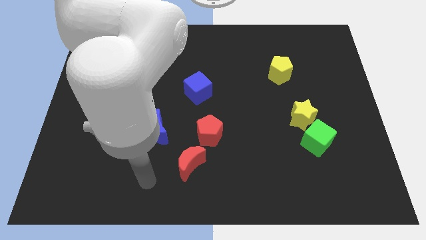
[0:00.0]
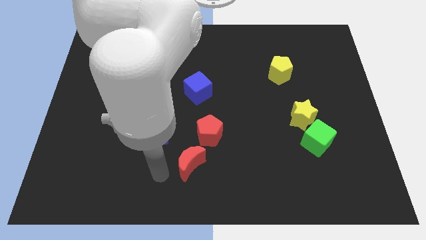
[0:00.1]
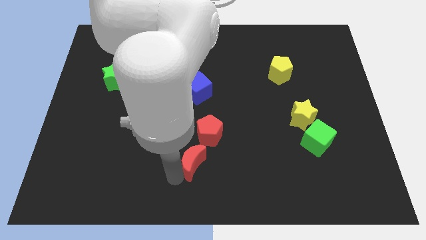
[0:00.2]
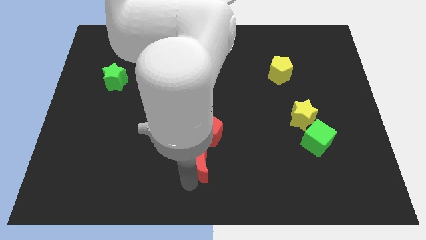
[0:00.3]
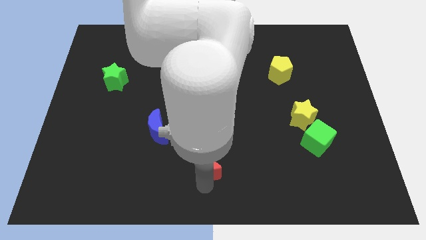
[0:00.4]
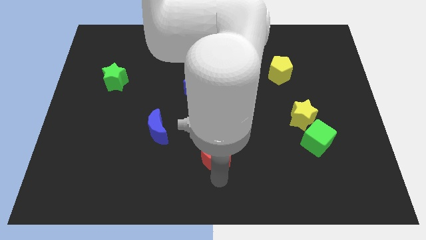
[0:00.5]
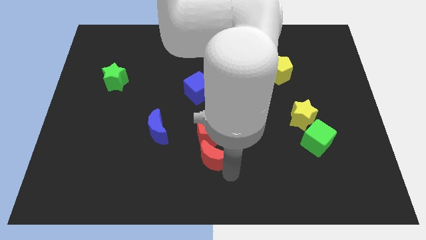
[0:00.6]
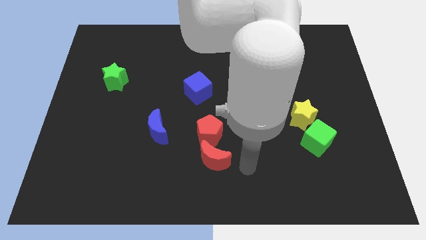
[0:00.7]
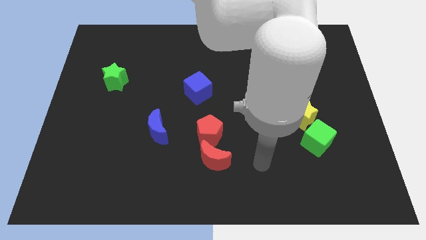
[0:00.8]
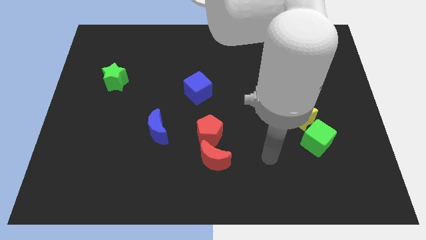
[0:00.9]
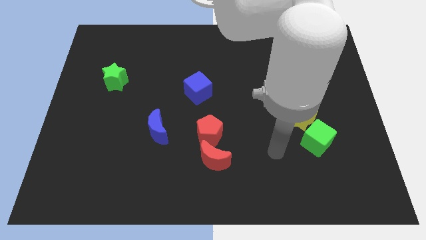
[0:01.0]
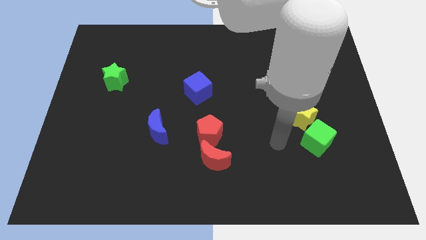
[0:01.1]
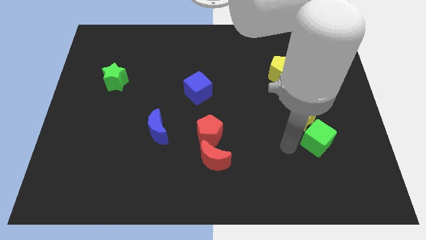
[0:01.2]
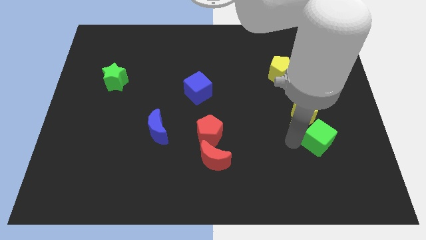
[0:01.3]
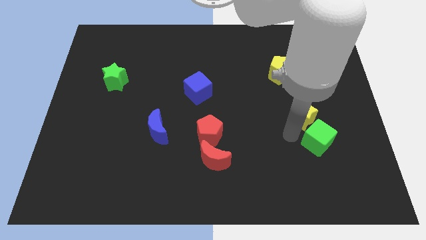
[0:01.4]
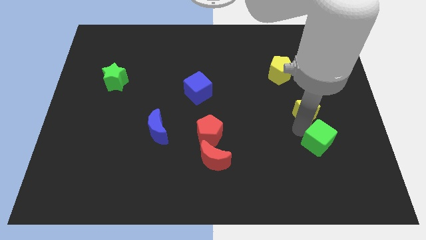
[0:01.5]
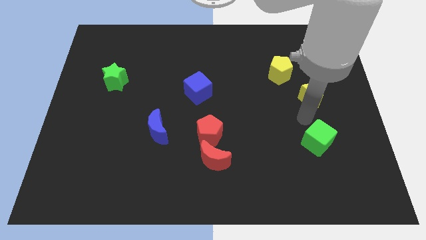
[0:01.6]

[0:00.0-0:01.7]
separate the green cube from the yellow star

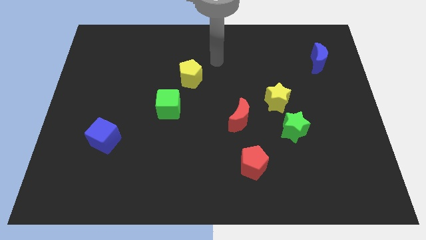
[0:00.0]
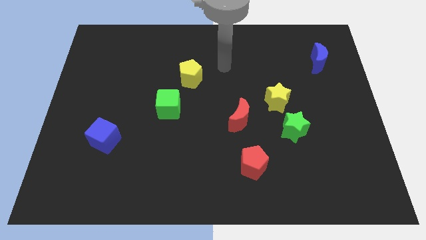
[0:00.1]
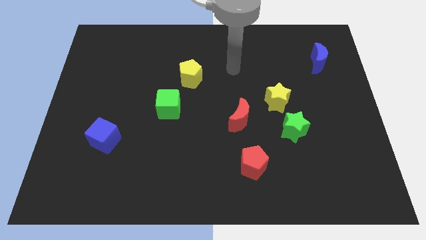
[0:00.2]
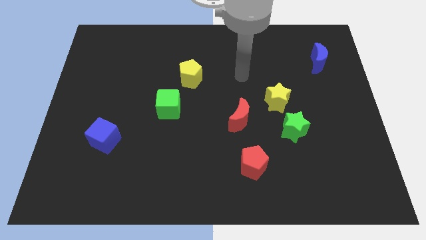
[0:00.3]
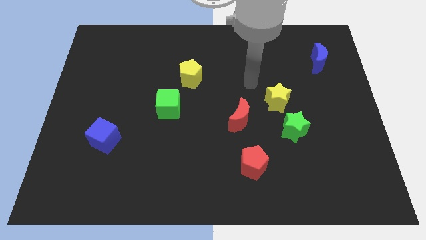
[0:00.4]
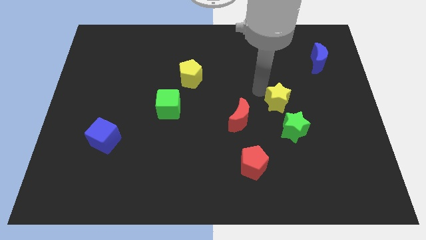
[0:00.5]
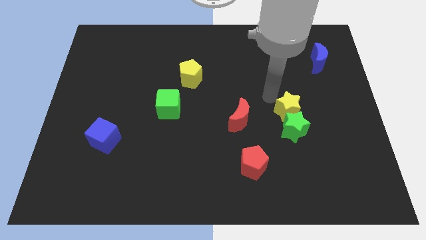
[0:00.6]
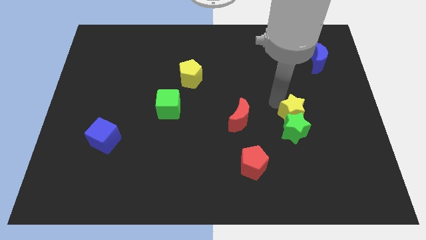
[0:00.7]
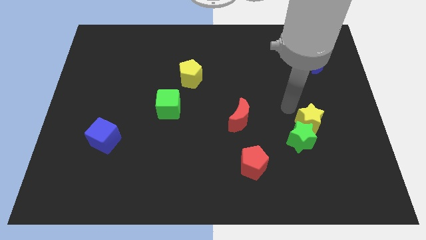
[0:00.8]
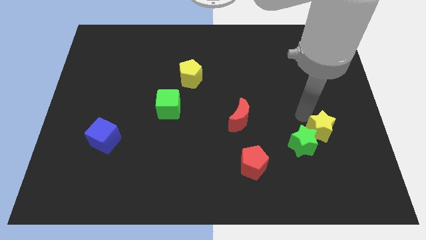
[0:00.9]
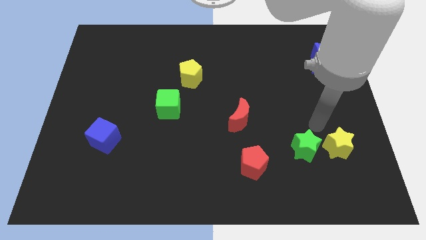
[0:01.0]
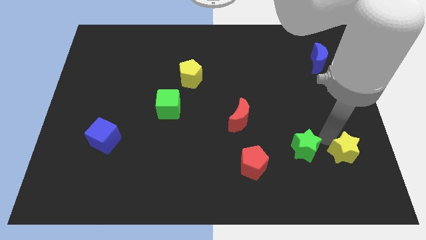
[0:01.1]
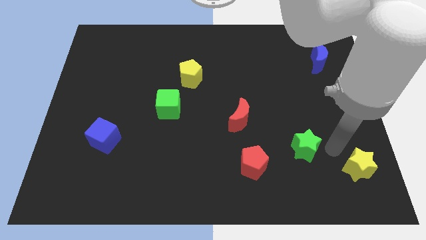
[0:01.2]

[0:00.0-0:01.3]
move the green star away from the yellow star

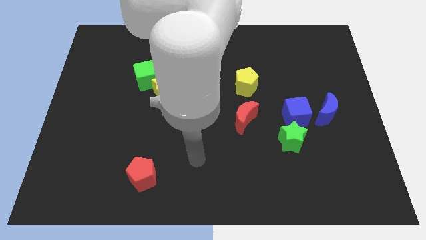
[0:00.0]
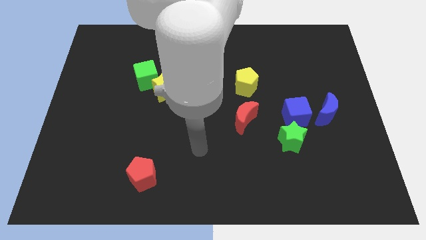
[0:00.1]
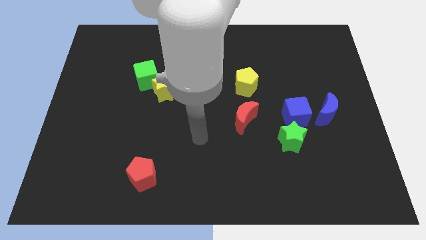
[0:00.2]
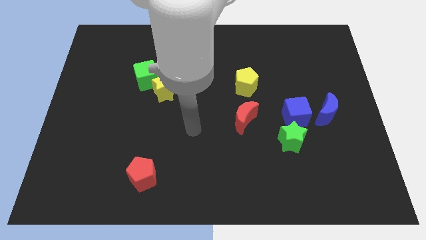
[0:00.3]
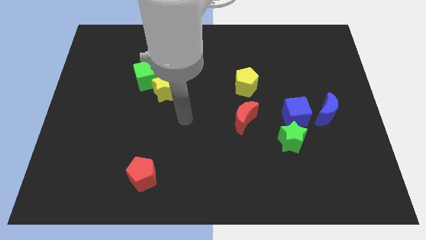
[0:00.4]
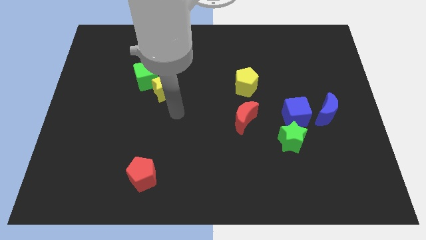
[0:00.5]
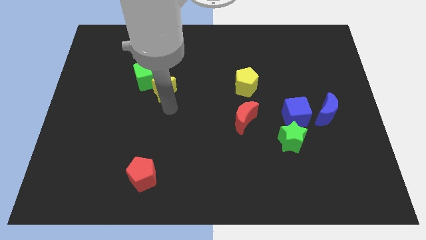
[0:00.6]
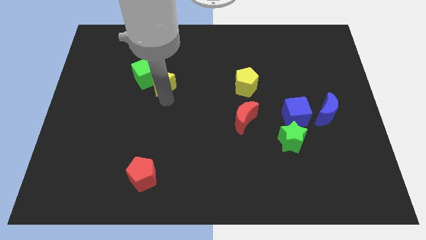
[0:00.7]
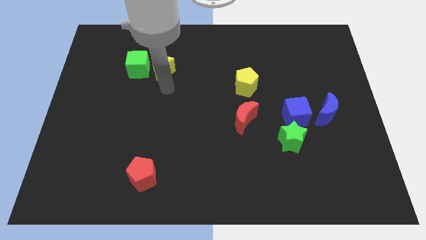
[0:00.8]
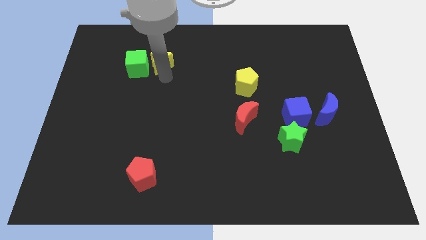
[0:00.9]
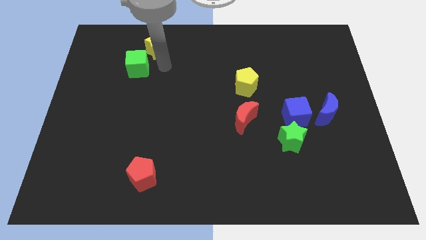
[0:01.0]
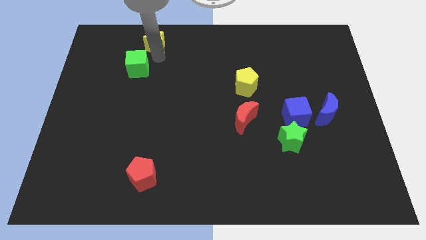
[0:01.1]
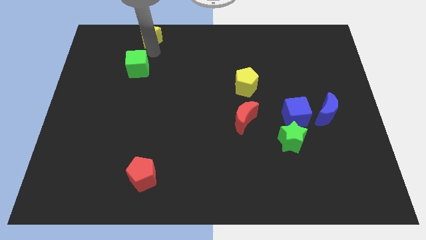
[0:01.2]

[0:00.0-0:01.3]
pull the green cube apart from the yellow star

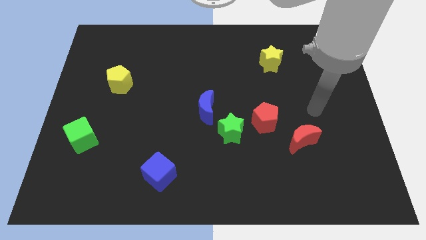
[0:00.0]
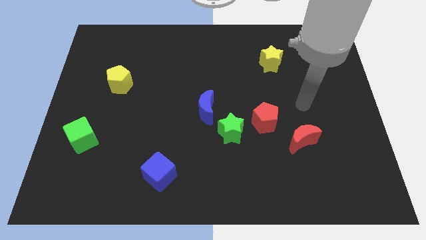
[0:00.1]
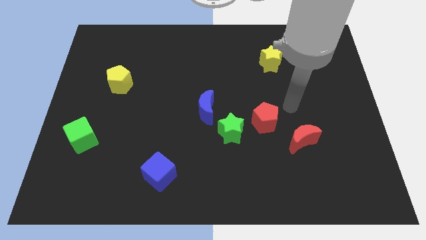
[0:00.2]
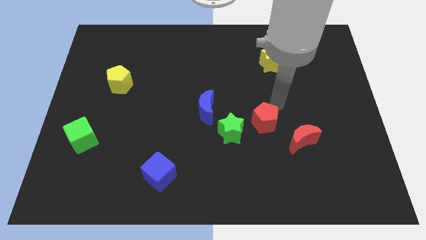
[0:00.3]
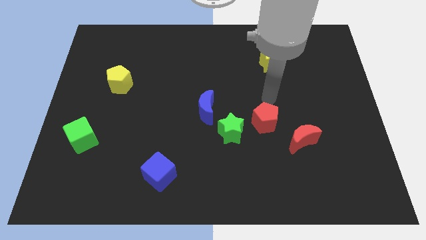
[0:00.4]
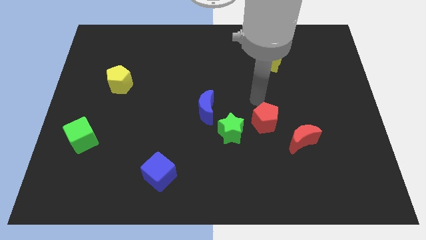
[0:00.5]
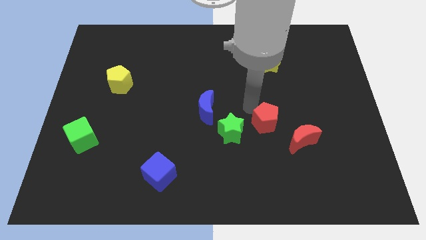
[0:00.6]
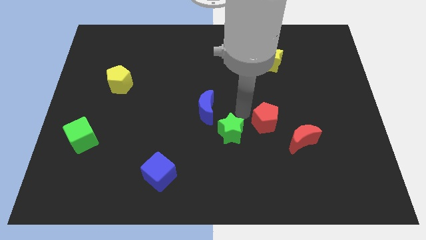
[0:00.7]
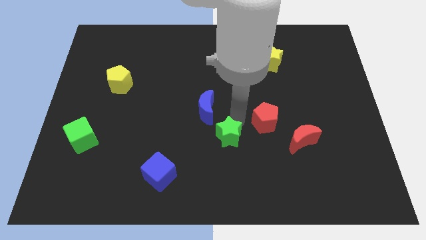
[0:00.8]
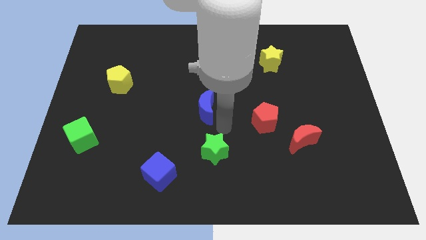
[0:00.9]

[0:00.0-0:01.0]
separate the blue moon from the green star

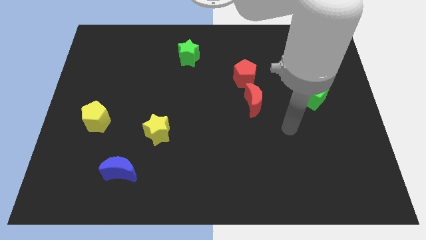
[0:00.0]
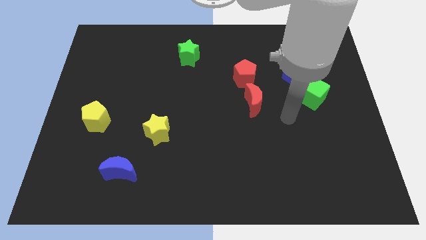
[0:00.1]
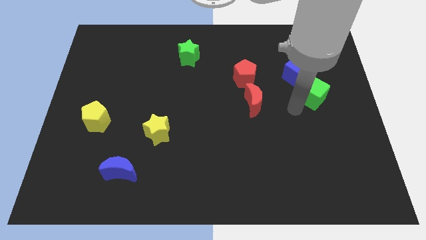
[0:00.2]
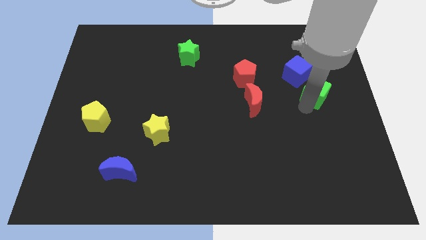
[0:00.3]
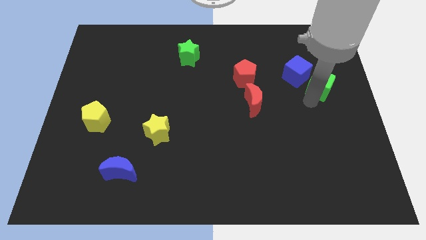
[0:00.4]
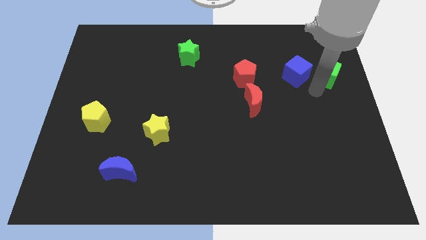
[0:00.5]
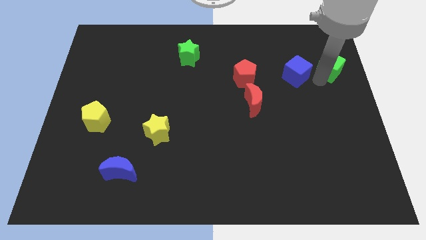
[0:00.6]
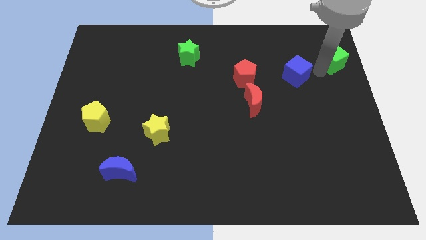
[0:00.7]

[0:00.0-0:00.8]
move the blue cube away from the green cube

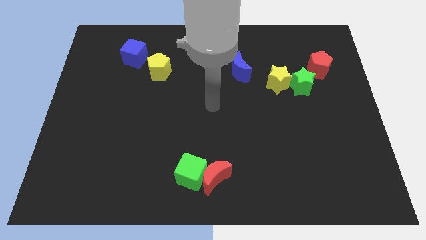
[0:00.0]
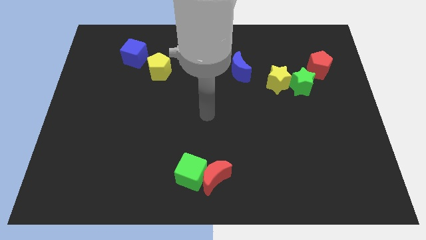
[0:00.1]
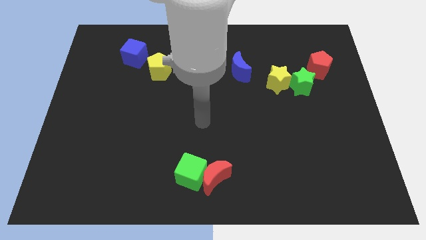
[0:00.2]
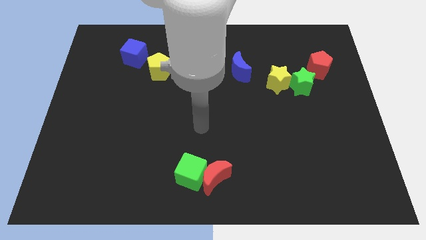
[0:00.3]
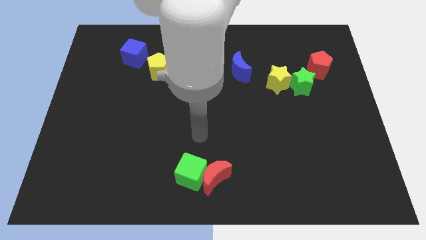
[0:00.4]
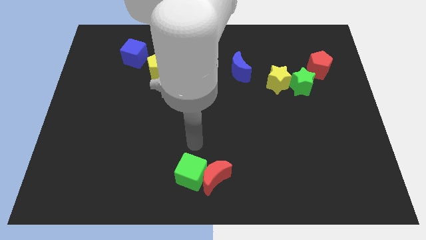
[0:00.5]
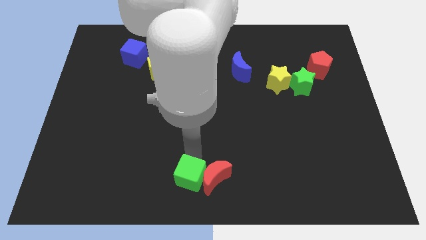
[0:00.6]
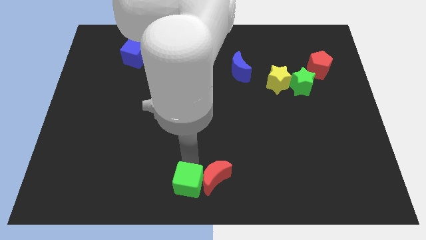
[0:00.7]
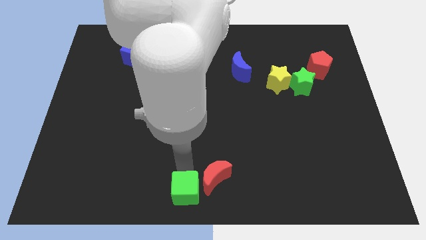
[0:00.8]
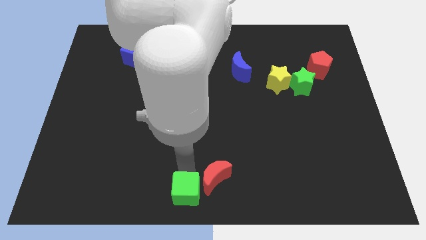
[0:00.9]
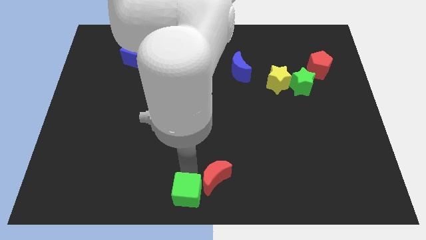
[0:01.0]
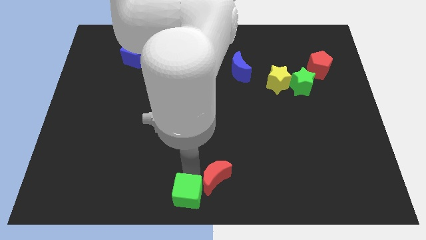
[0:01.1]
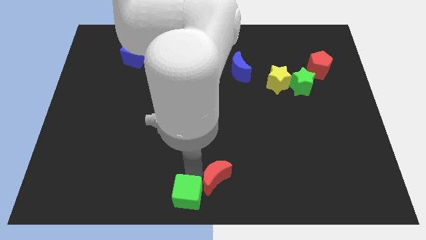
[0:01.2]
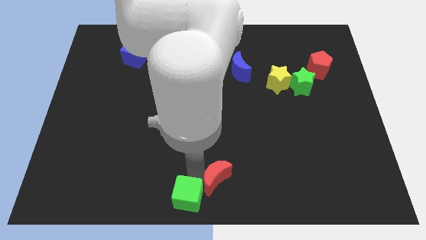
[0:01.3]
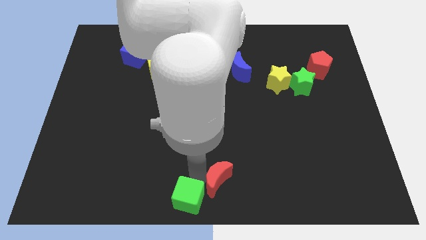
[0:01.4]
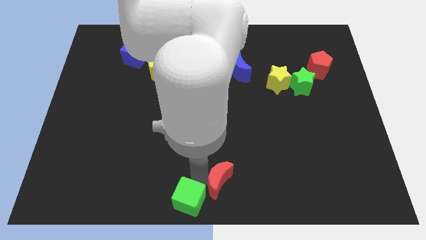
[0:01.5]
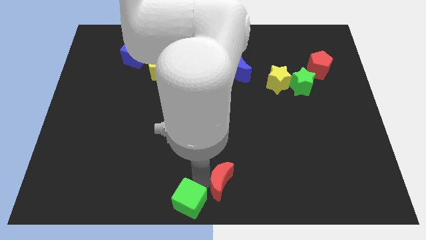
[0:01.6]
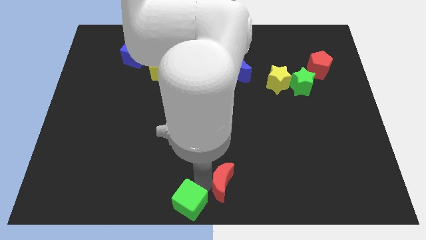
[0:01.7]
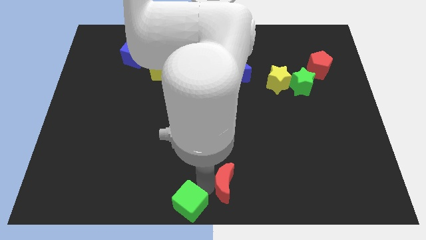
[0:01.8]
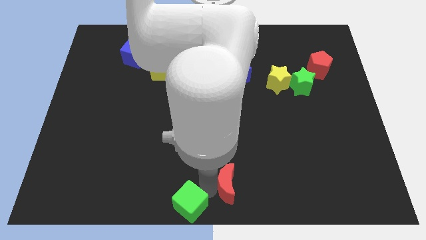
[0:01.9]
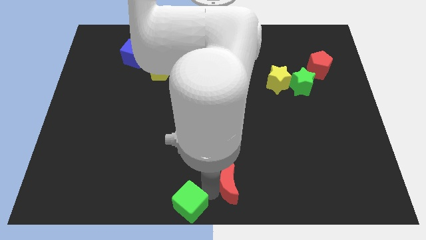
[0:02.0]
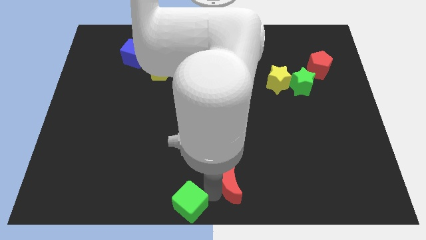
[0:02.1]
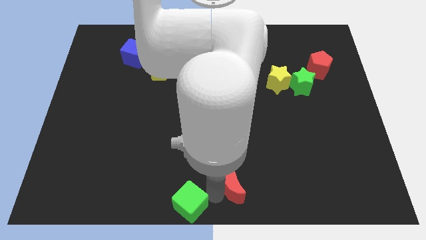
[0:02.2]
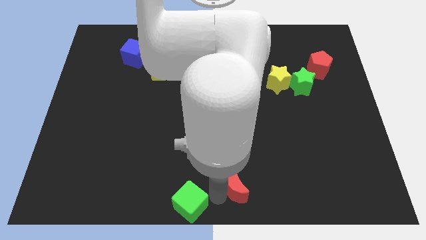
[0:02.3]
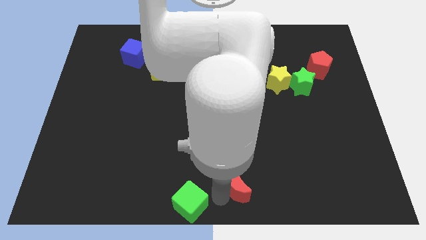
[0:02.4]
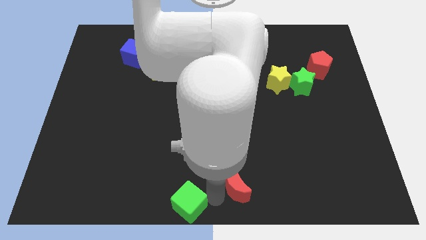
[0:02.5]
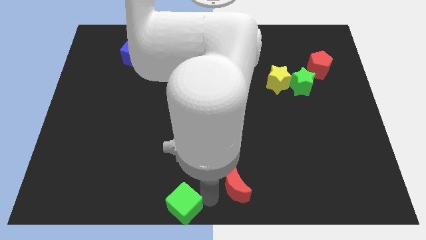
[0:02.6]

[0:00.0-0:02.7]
pull the red moon apart from the green cube

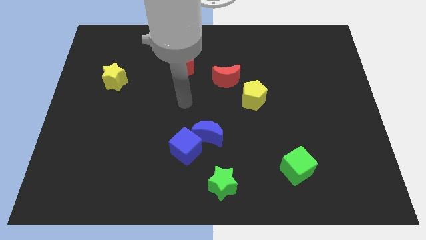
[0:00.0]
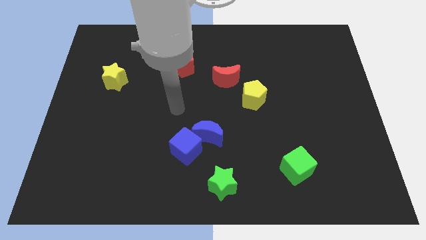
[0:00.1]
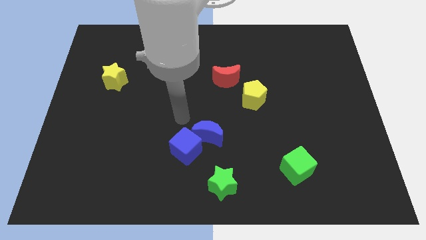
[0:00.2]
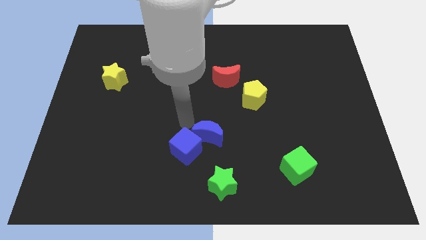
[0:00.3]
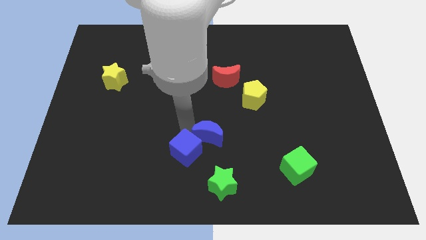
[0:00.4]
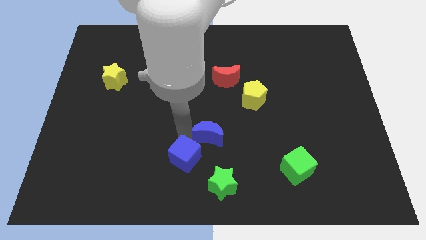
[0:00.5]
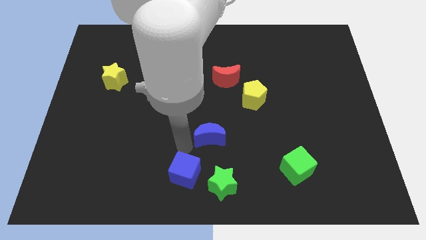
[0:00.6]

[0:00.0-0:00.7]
separate the blue moon from the blue cube
